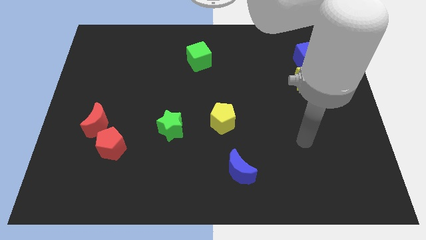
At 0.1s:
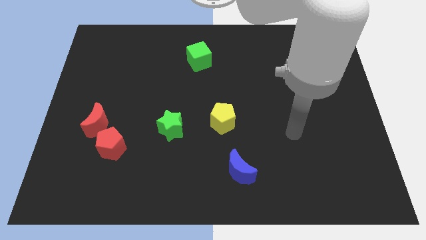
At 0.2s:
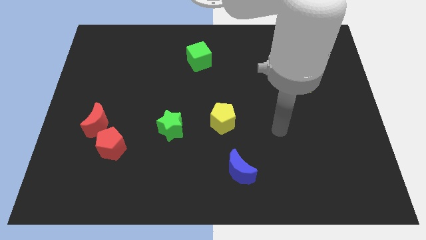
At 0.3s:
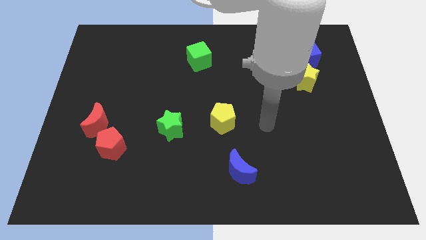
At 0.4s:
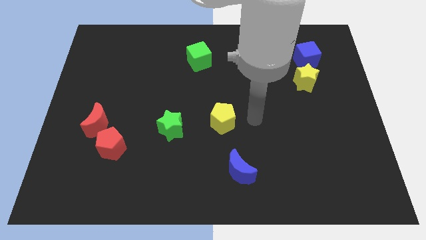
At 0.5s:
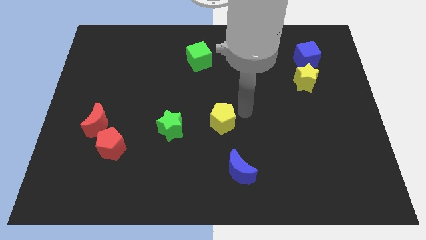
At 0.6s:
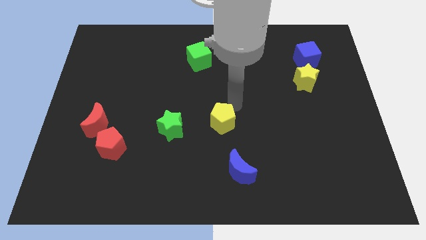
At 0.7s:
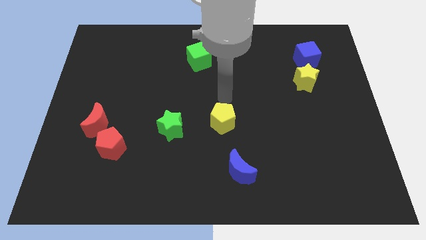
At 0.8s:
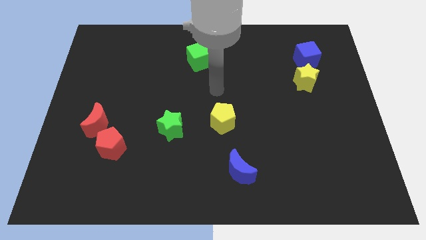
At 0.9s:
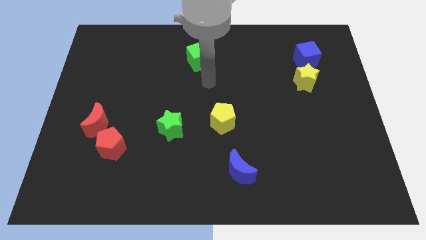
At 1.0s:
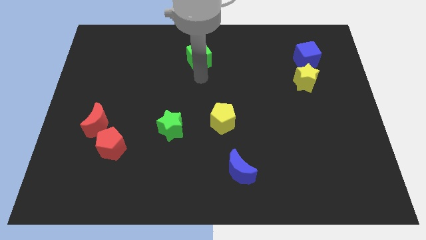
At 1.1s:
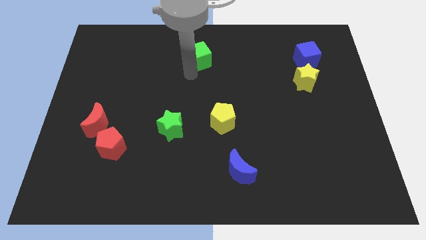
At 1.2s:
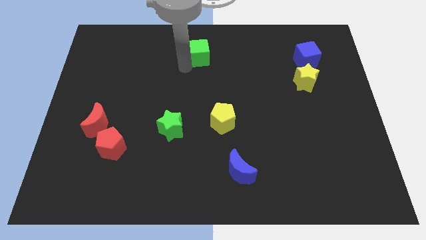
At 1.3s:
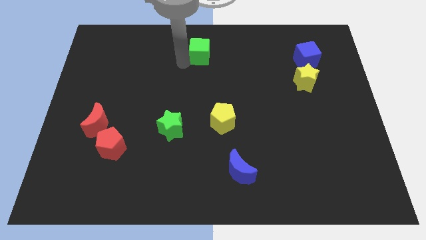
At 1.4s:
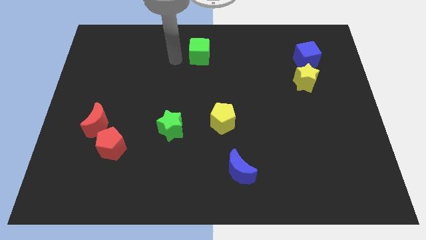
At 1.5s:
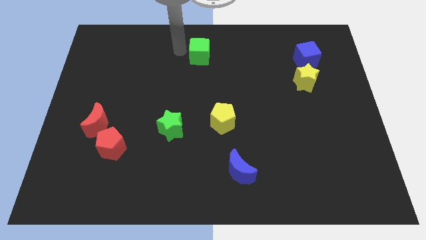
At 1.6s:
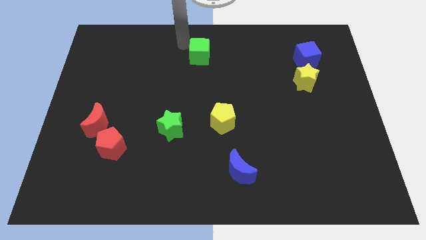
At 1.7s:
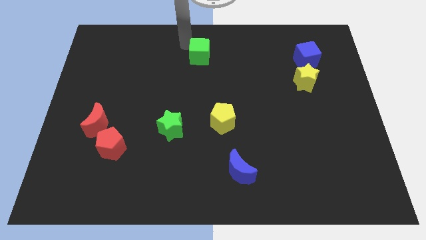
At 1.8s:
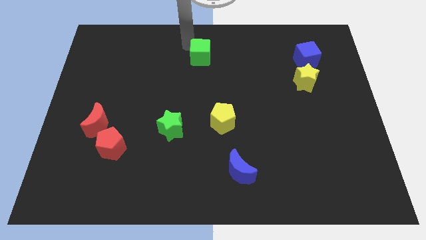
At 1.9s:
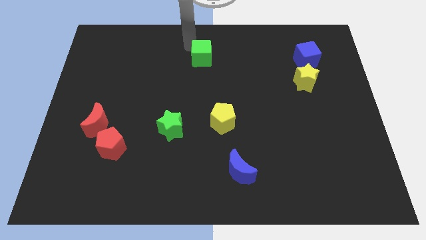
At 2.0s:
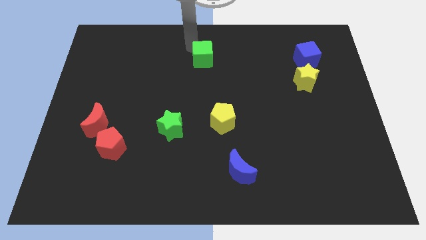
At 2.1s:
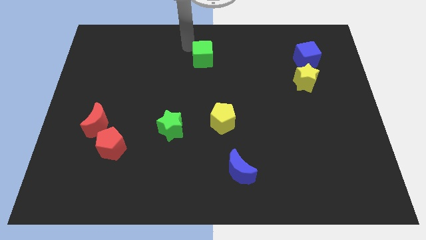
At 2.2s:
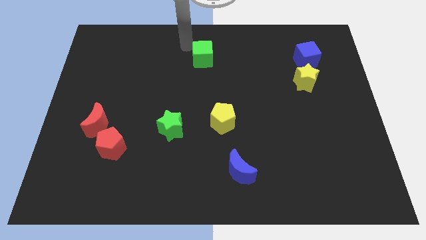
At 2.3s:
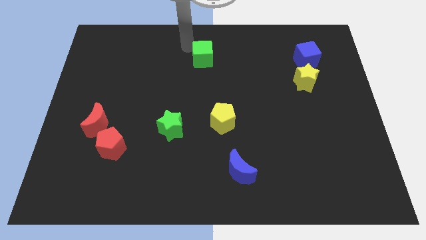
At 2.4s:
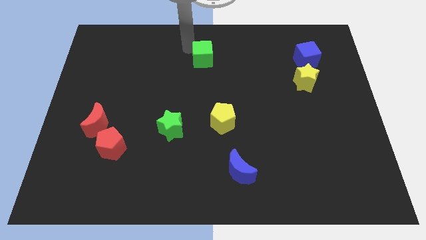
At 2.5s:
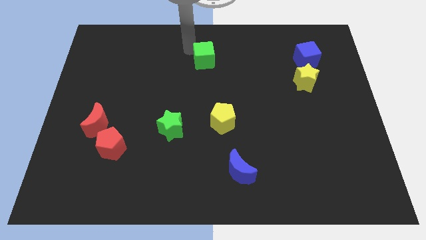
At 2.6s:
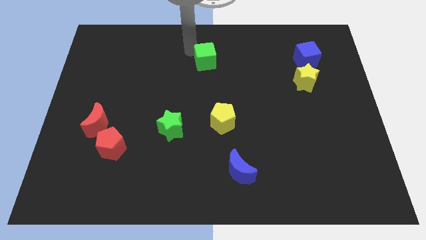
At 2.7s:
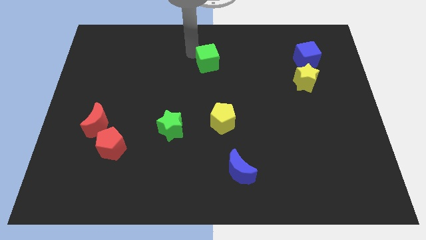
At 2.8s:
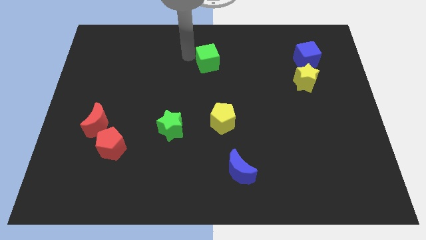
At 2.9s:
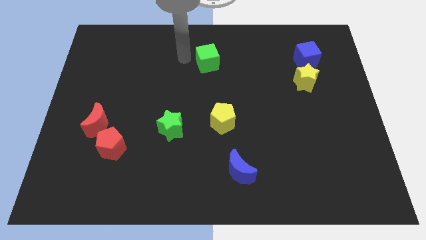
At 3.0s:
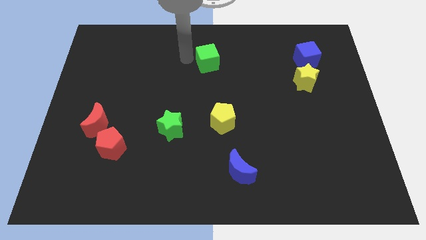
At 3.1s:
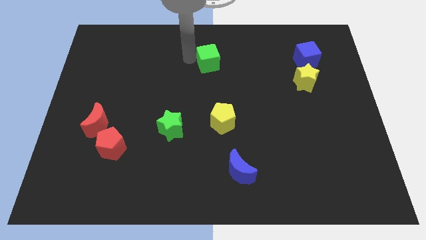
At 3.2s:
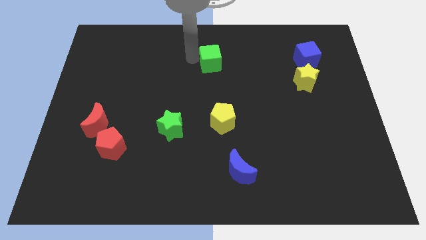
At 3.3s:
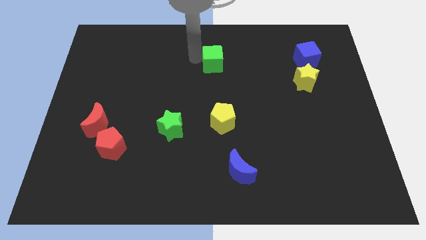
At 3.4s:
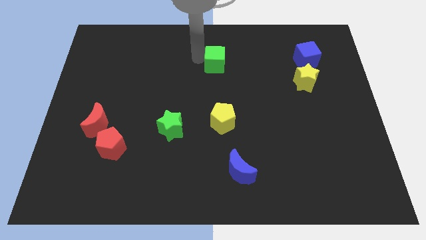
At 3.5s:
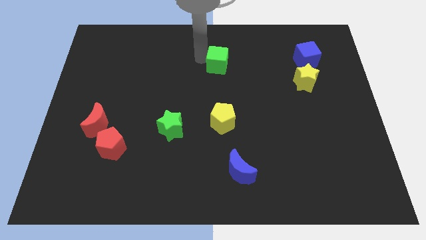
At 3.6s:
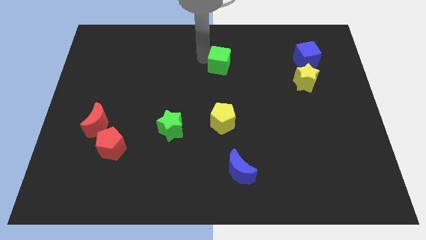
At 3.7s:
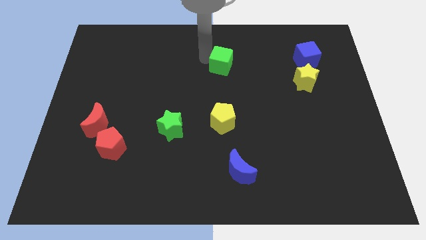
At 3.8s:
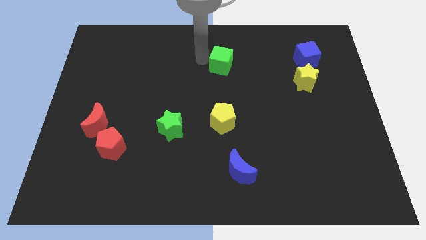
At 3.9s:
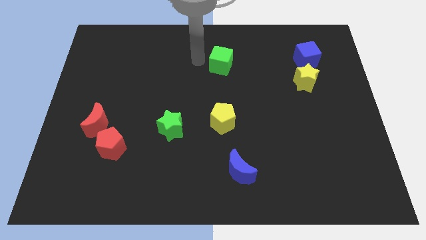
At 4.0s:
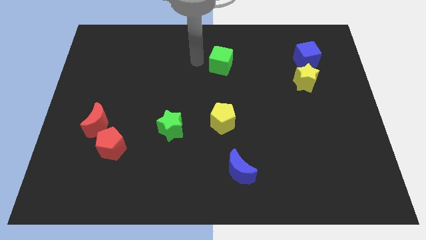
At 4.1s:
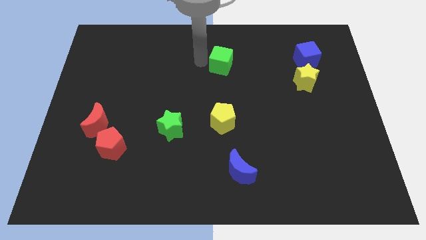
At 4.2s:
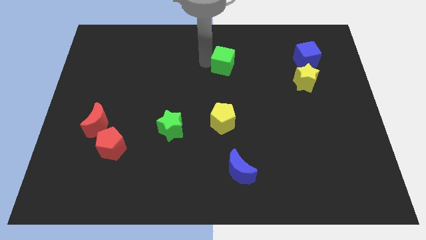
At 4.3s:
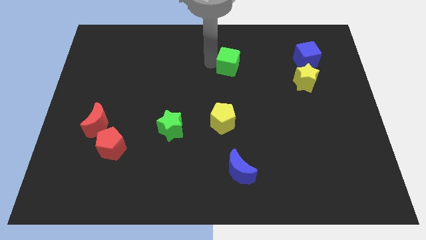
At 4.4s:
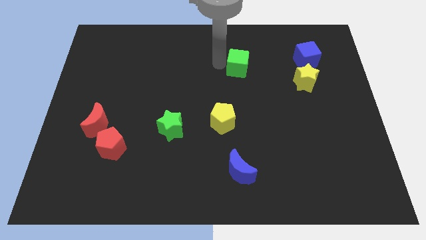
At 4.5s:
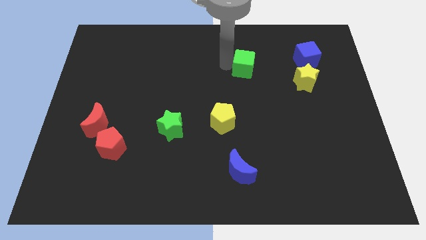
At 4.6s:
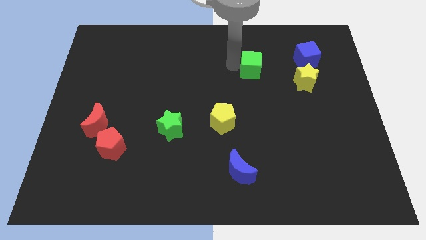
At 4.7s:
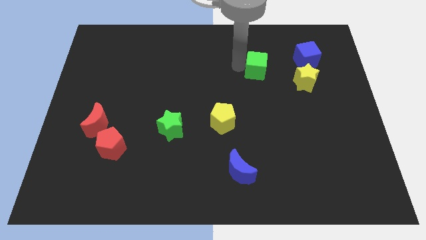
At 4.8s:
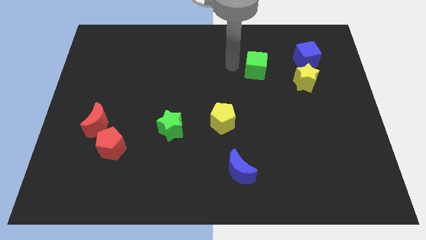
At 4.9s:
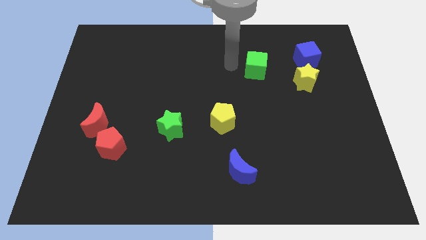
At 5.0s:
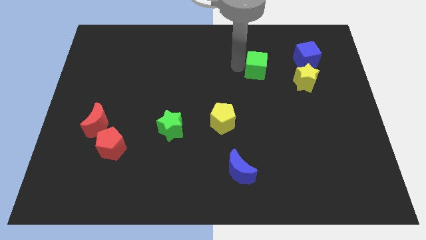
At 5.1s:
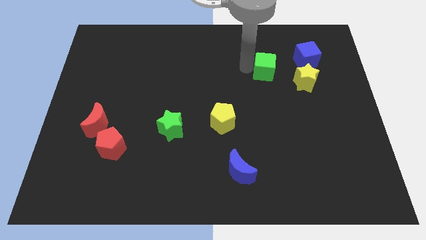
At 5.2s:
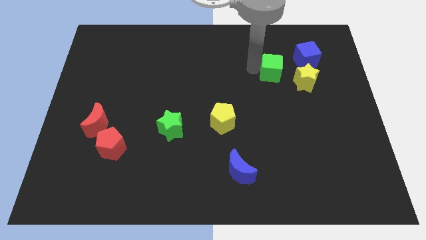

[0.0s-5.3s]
put the green cube to the bottom left of the blue cube

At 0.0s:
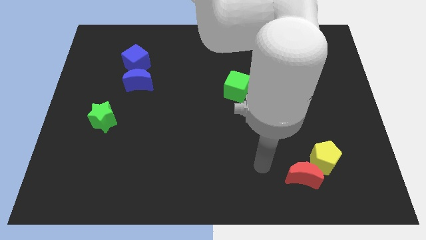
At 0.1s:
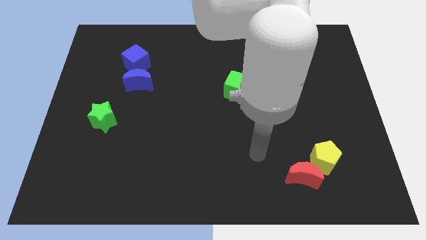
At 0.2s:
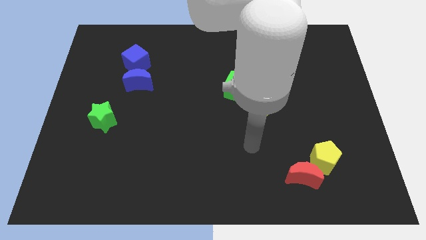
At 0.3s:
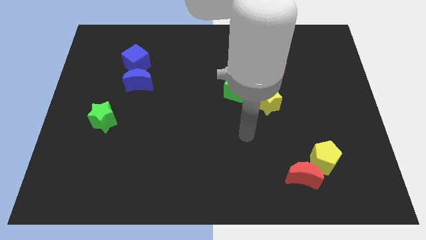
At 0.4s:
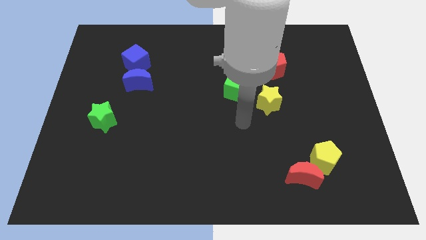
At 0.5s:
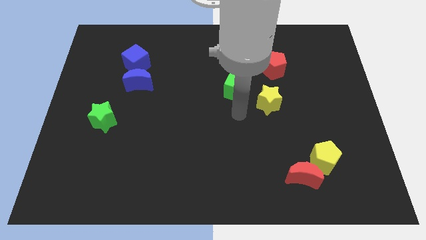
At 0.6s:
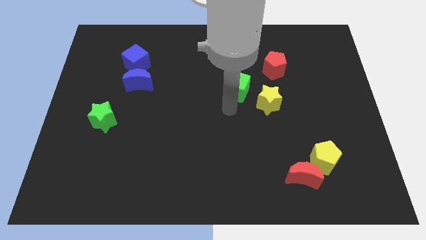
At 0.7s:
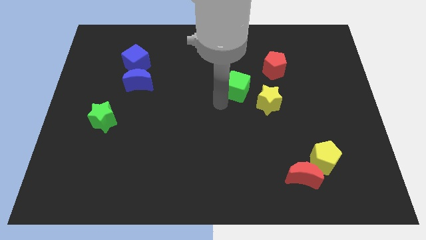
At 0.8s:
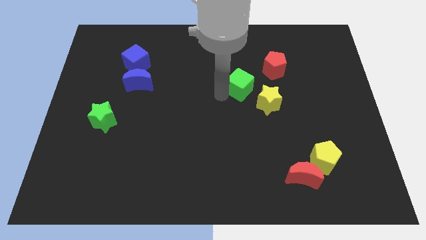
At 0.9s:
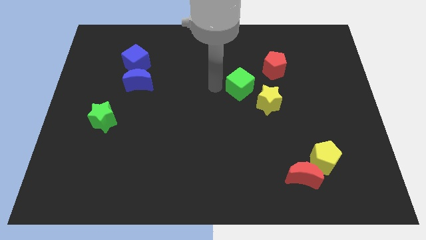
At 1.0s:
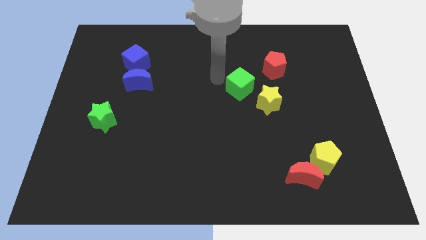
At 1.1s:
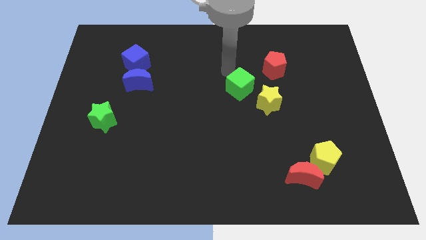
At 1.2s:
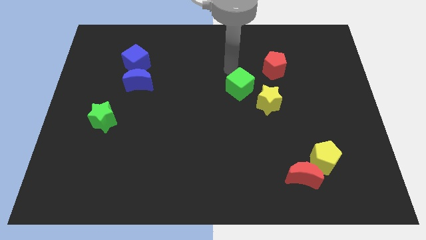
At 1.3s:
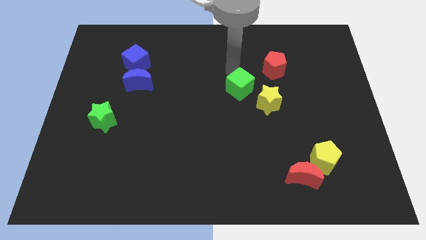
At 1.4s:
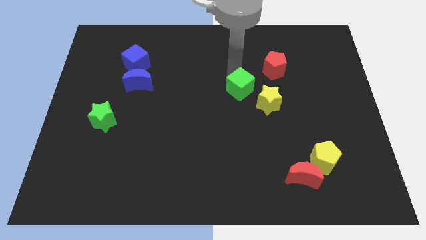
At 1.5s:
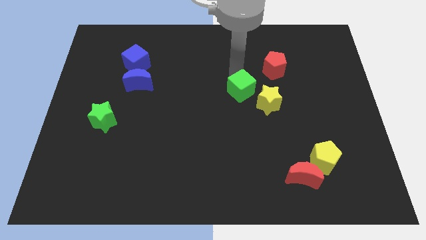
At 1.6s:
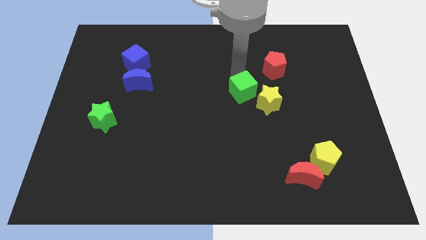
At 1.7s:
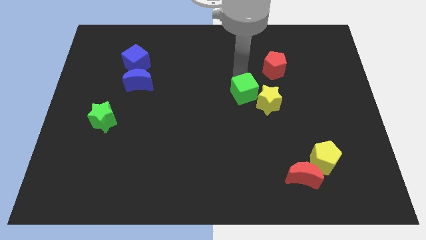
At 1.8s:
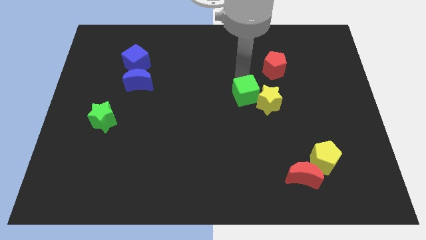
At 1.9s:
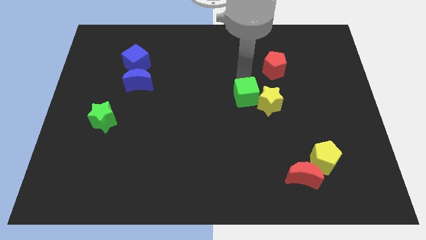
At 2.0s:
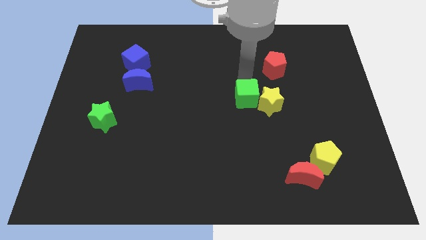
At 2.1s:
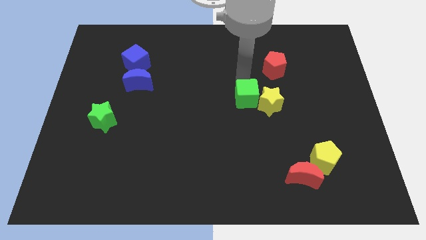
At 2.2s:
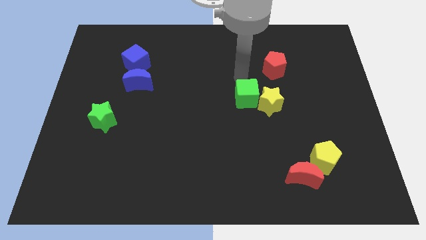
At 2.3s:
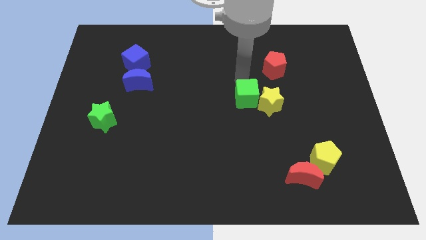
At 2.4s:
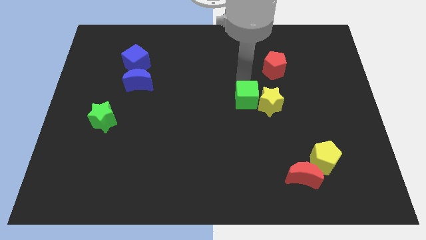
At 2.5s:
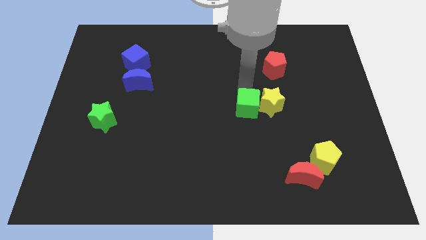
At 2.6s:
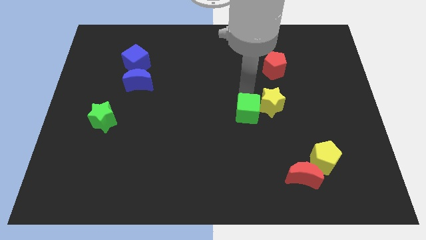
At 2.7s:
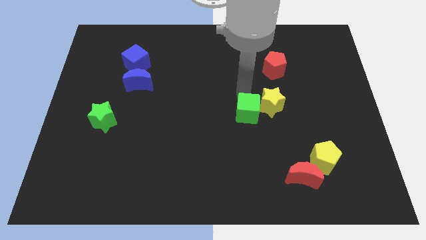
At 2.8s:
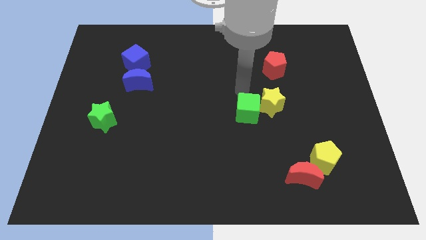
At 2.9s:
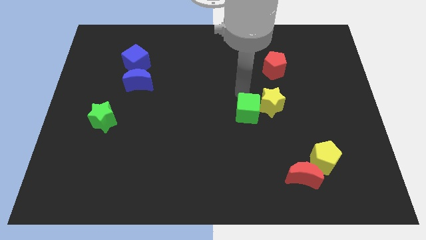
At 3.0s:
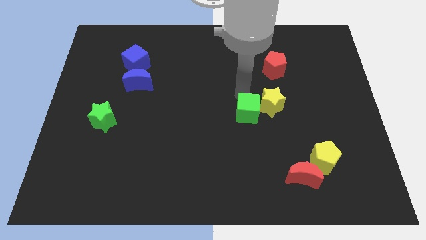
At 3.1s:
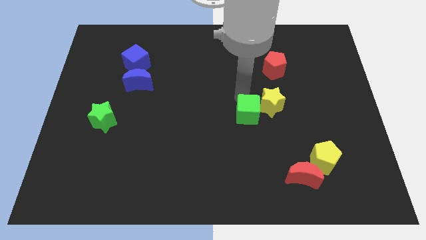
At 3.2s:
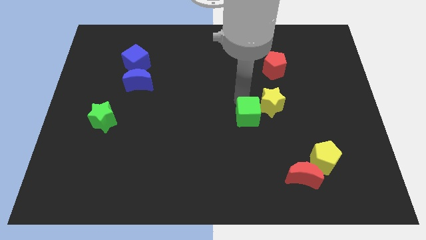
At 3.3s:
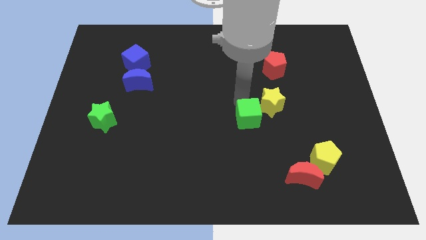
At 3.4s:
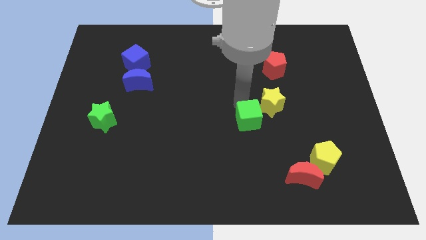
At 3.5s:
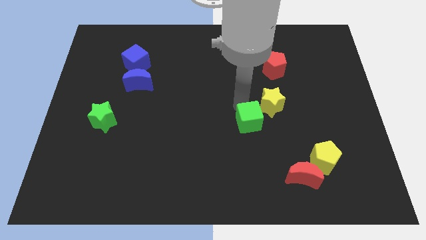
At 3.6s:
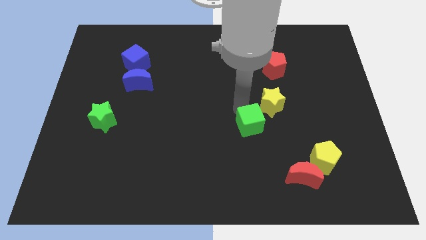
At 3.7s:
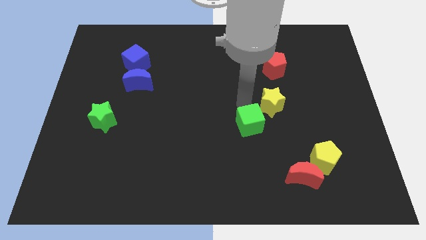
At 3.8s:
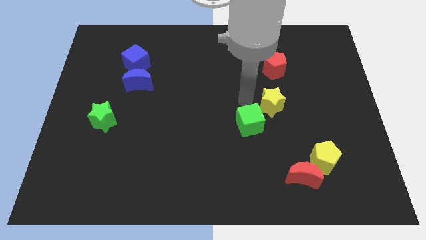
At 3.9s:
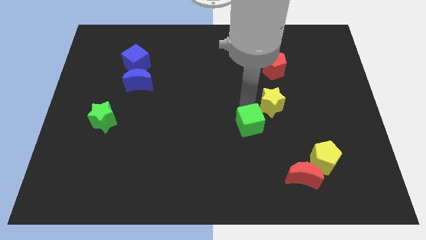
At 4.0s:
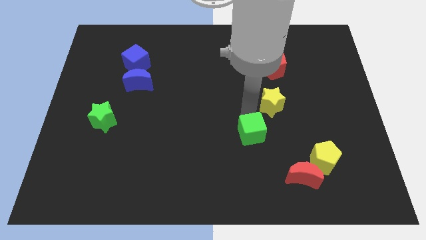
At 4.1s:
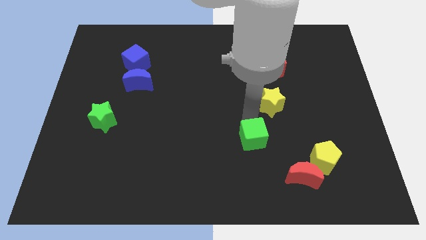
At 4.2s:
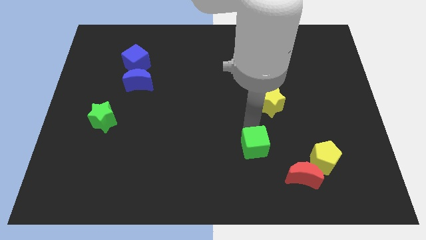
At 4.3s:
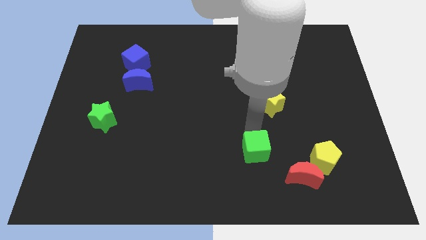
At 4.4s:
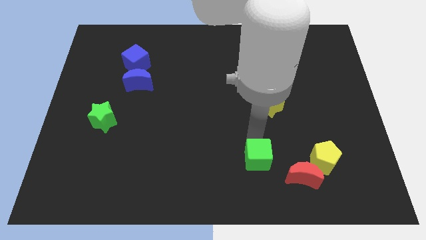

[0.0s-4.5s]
push the green cube to the left side of the red moon
